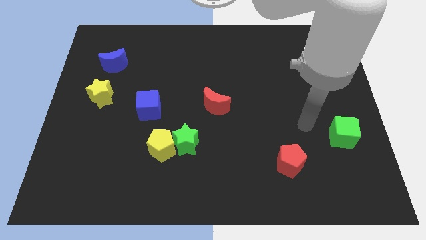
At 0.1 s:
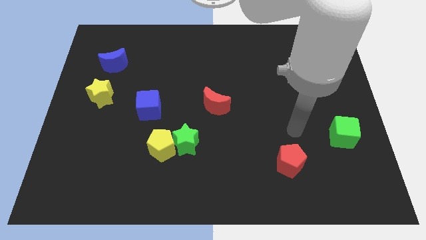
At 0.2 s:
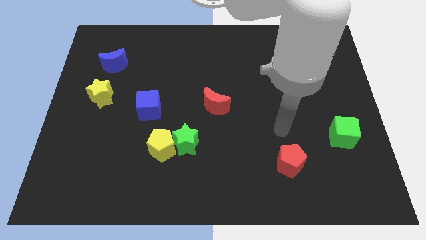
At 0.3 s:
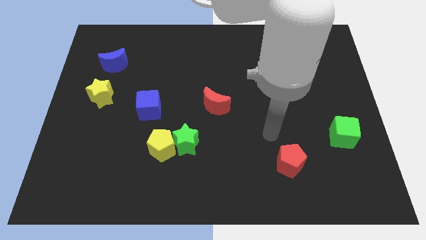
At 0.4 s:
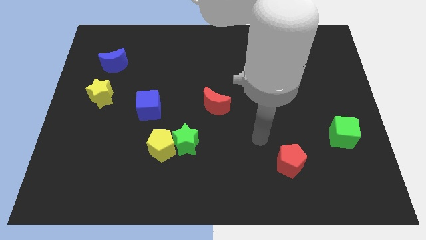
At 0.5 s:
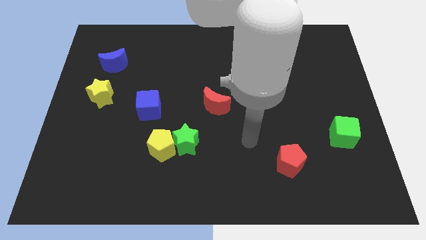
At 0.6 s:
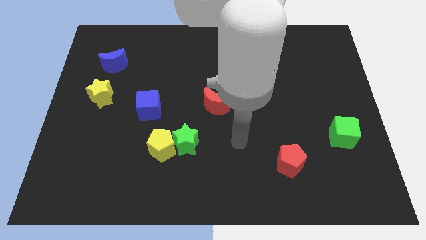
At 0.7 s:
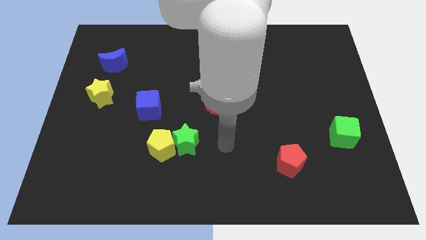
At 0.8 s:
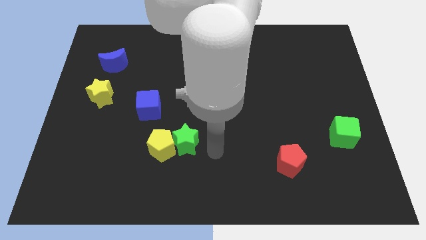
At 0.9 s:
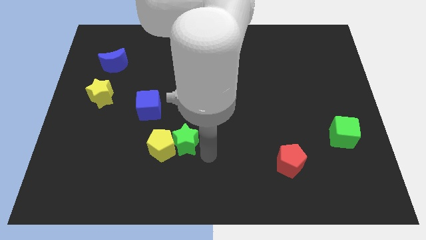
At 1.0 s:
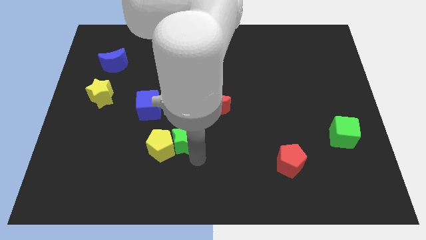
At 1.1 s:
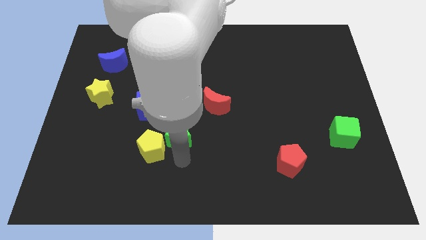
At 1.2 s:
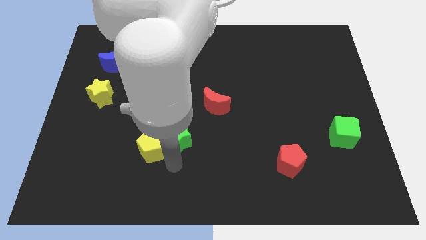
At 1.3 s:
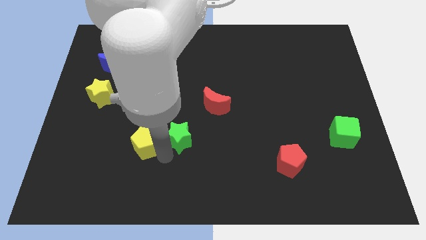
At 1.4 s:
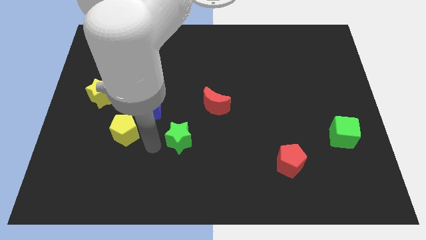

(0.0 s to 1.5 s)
pull the green star apart from the yellow pentagon

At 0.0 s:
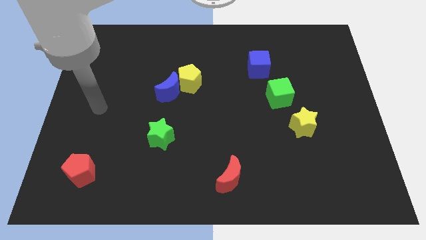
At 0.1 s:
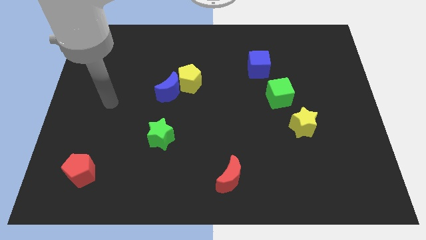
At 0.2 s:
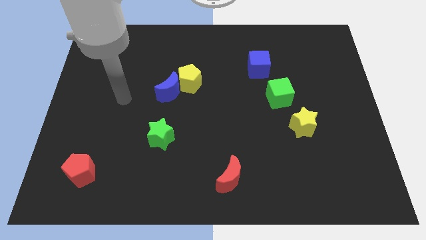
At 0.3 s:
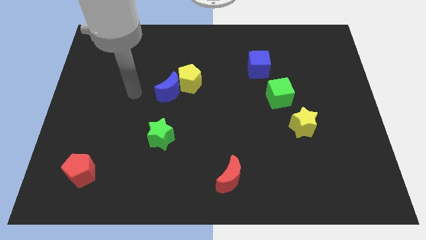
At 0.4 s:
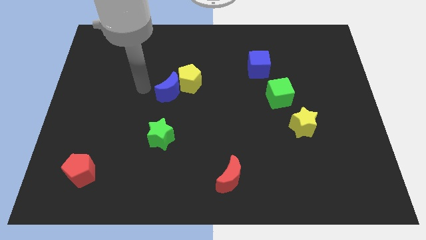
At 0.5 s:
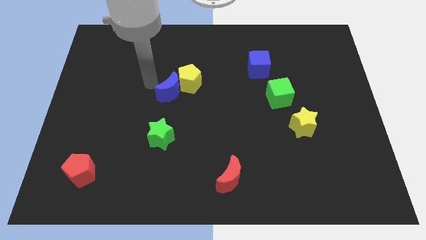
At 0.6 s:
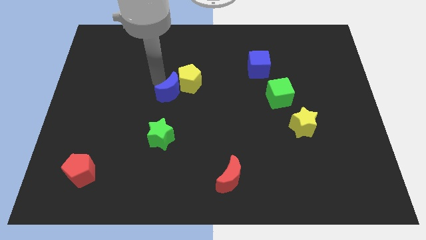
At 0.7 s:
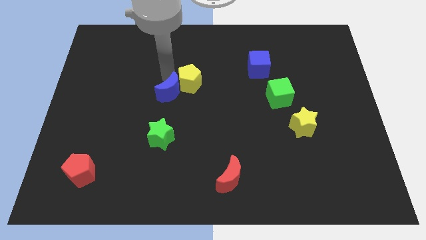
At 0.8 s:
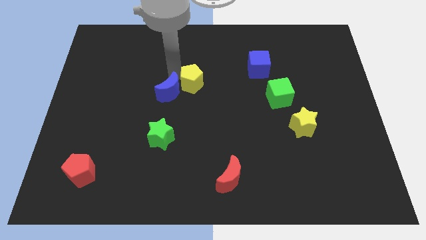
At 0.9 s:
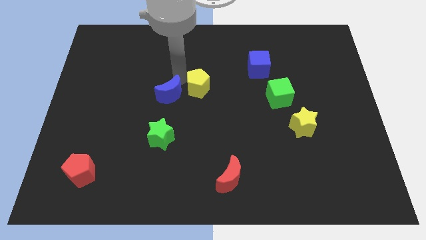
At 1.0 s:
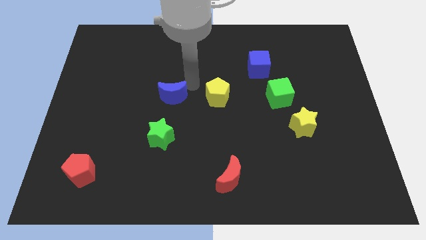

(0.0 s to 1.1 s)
move the blue moon away from the yellow pentagon

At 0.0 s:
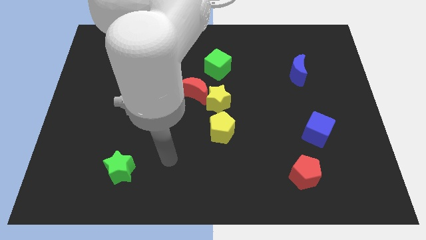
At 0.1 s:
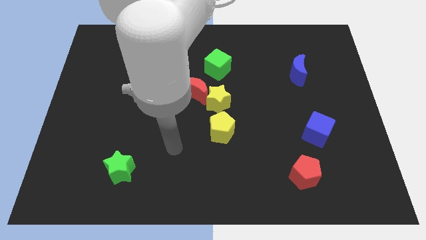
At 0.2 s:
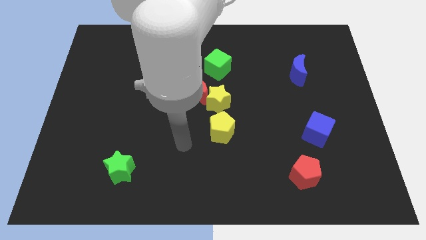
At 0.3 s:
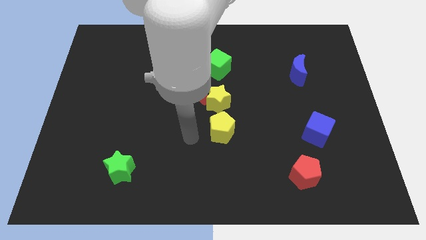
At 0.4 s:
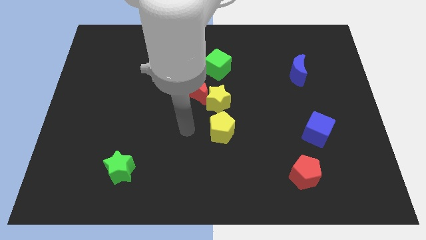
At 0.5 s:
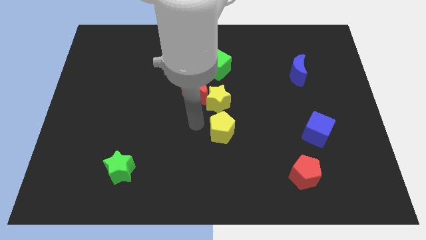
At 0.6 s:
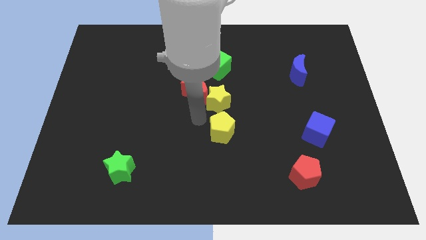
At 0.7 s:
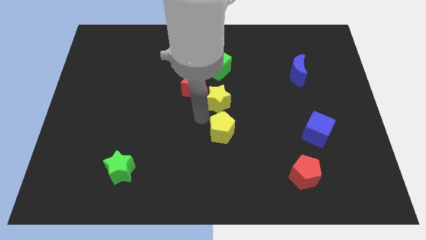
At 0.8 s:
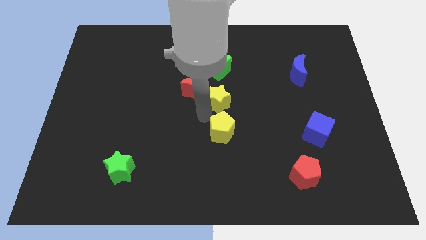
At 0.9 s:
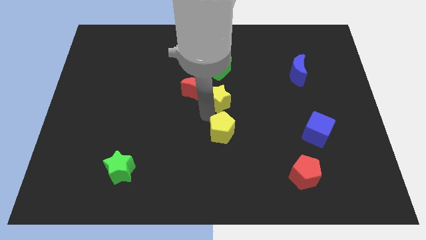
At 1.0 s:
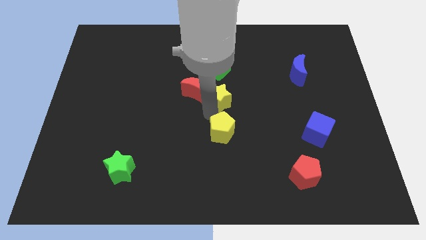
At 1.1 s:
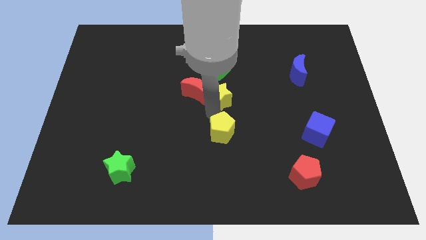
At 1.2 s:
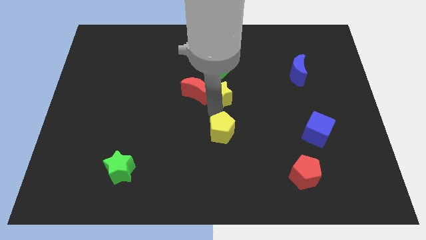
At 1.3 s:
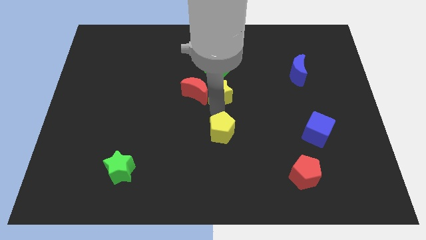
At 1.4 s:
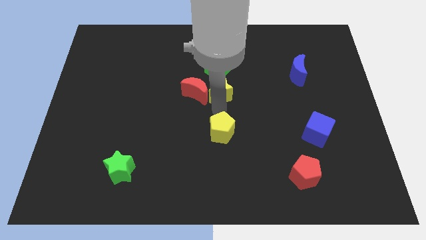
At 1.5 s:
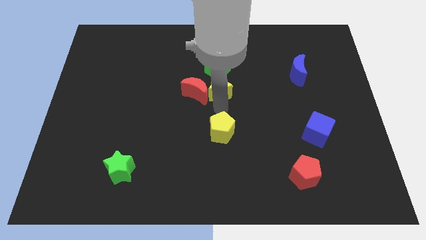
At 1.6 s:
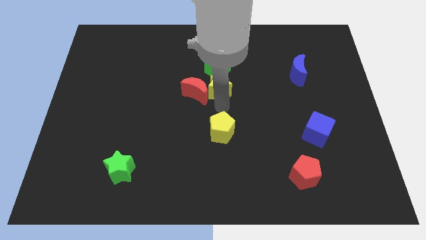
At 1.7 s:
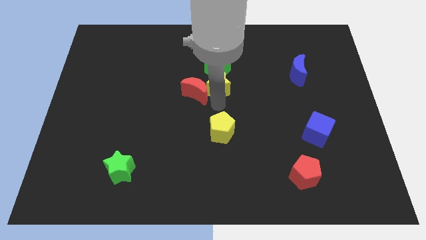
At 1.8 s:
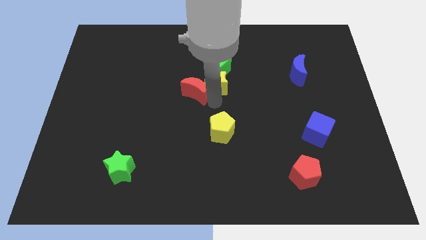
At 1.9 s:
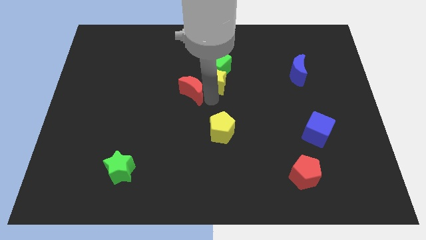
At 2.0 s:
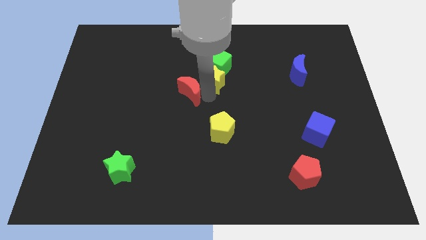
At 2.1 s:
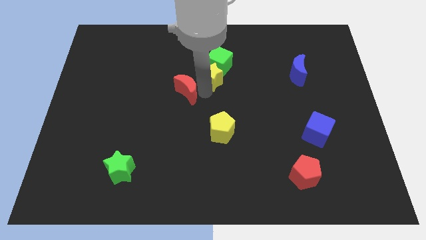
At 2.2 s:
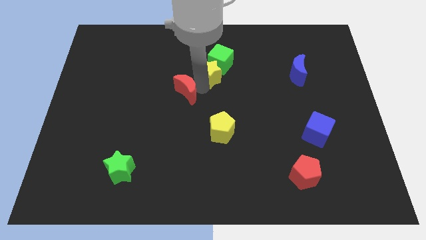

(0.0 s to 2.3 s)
pull the yellow star apart from the red moon and yellow pentagon

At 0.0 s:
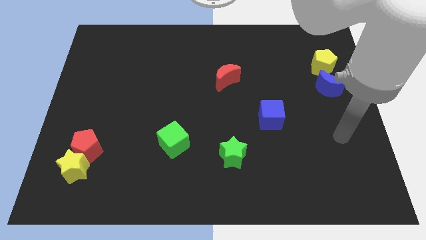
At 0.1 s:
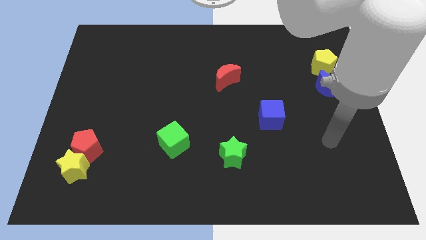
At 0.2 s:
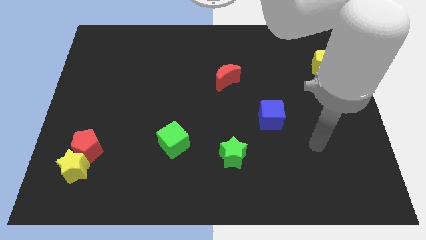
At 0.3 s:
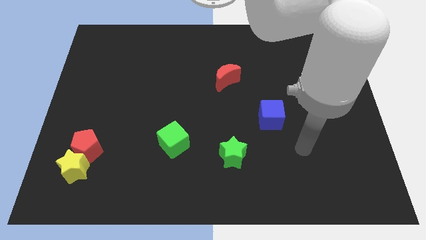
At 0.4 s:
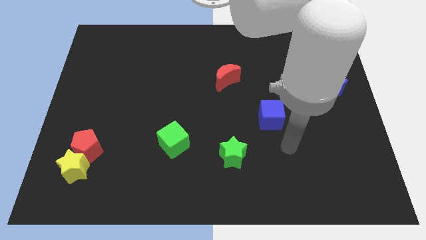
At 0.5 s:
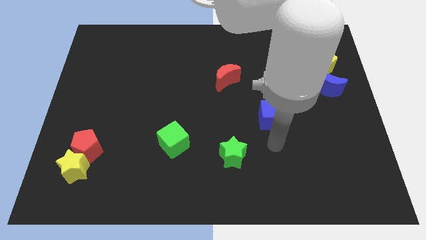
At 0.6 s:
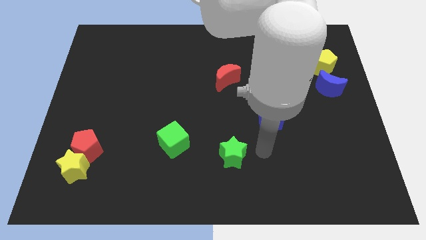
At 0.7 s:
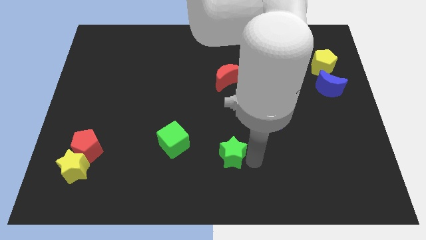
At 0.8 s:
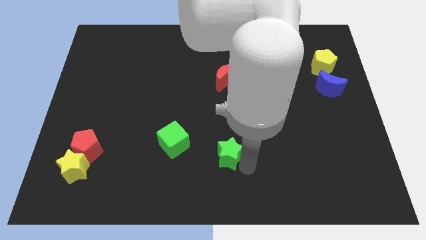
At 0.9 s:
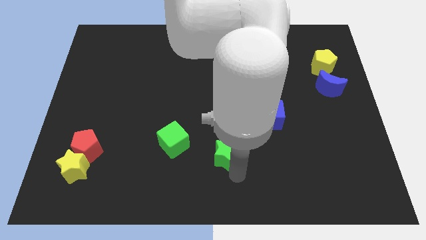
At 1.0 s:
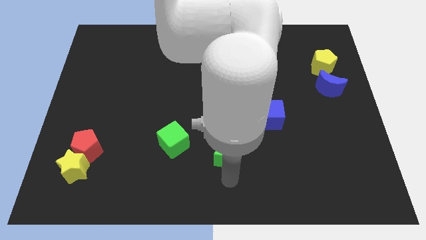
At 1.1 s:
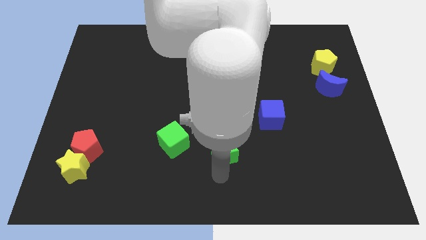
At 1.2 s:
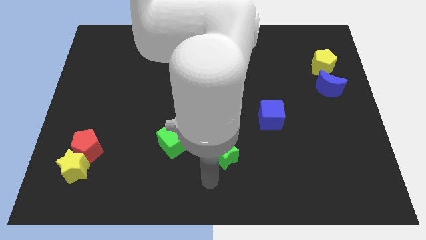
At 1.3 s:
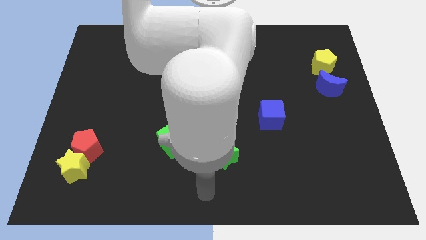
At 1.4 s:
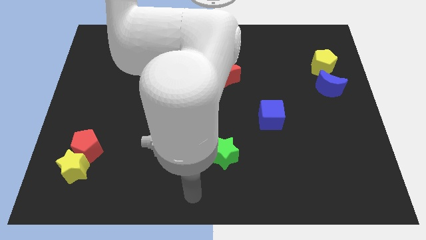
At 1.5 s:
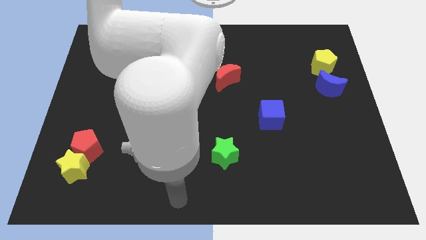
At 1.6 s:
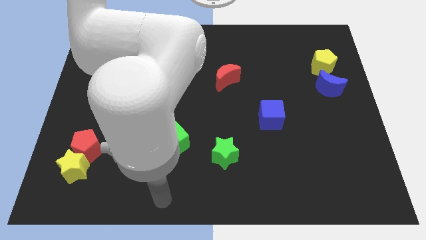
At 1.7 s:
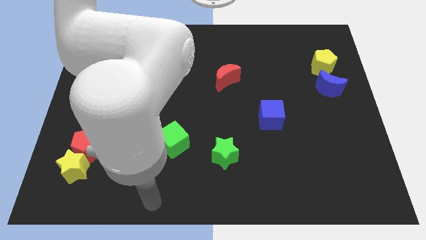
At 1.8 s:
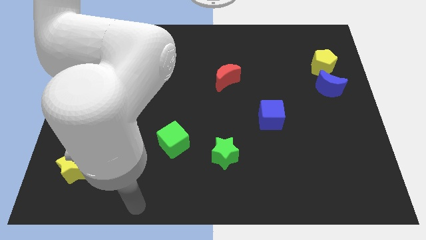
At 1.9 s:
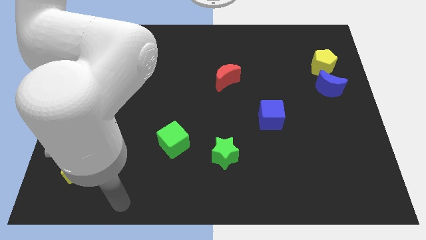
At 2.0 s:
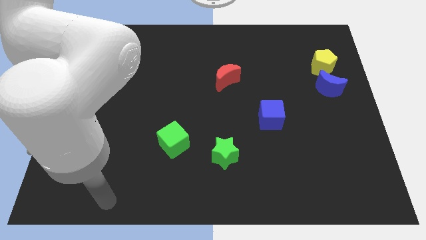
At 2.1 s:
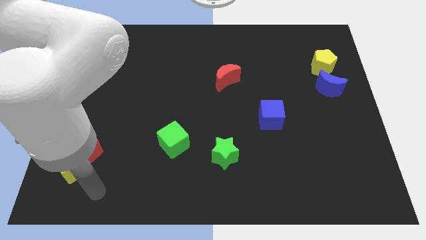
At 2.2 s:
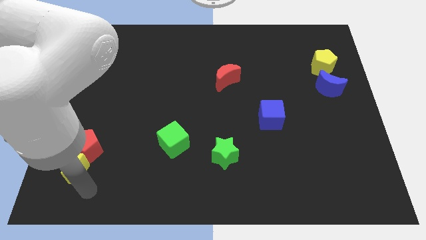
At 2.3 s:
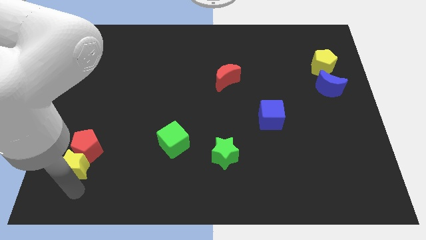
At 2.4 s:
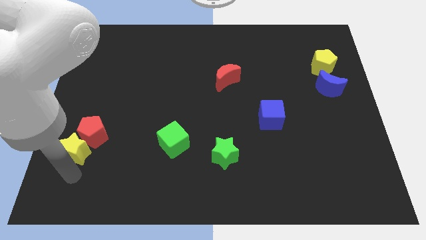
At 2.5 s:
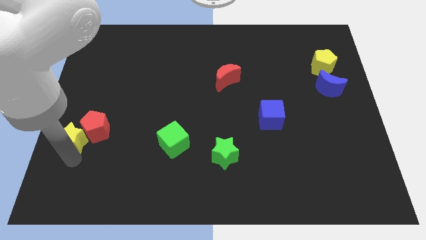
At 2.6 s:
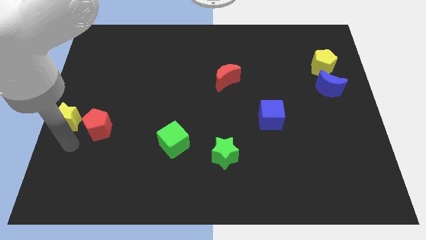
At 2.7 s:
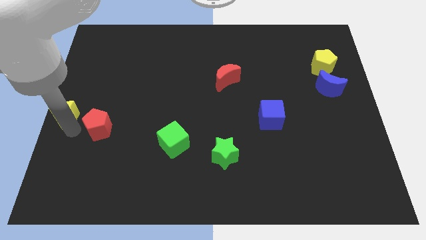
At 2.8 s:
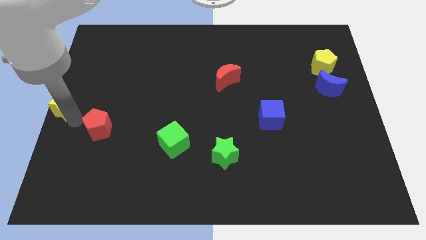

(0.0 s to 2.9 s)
separate the red pentagon from the yellow star

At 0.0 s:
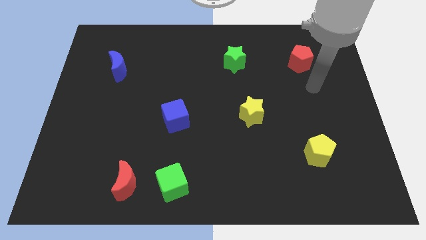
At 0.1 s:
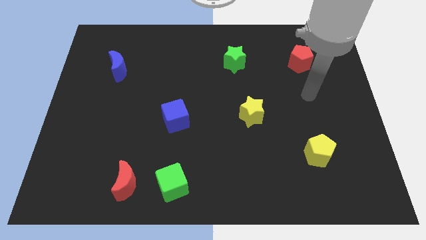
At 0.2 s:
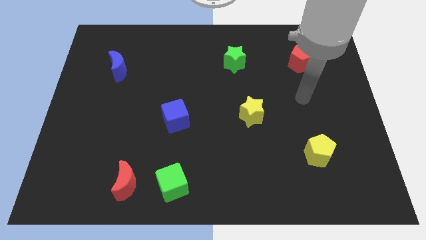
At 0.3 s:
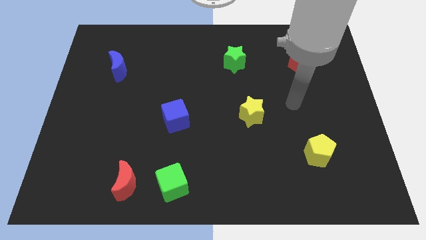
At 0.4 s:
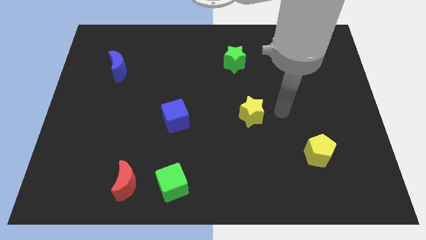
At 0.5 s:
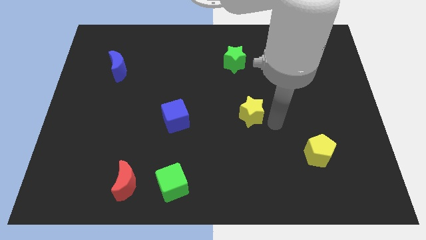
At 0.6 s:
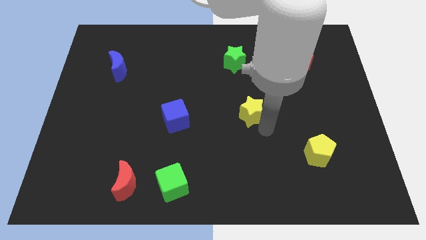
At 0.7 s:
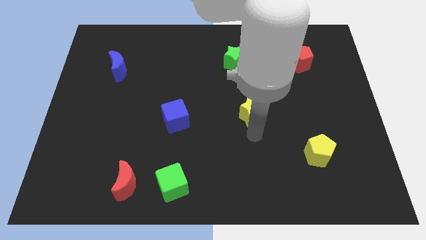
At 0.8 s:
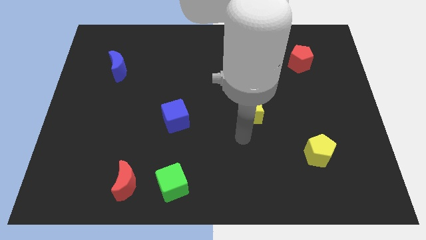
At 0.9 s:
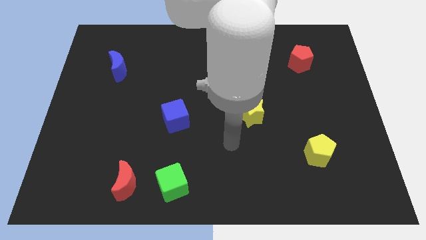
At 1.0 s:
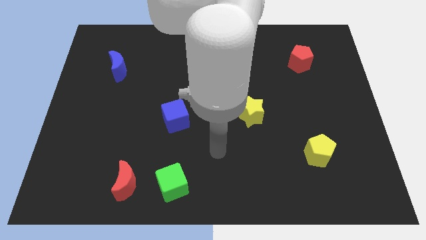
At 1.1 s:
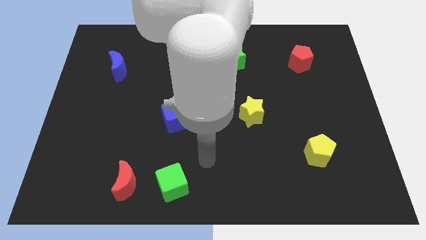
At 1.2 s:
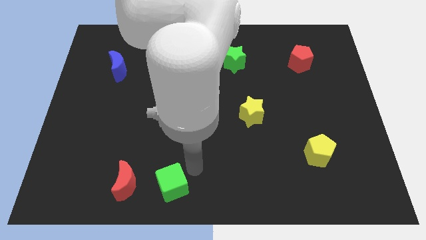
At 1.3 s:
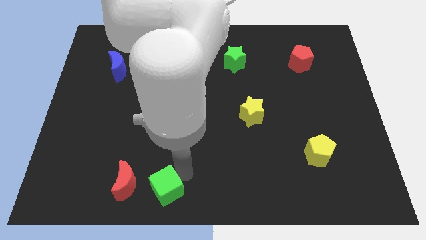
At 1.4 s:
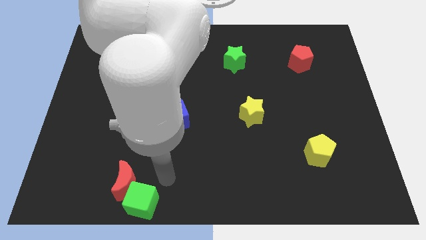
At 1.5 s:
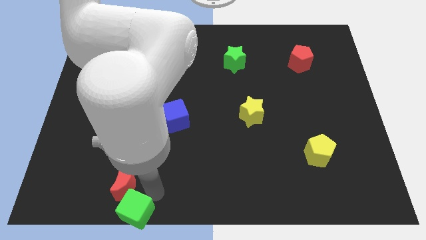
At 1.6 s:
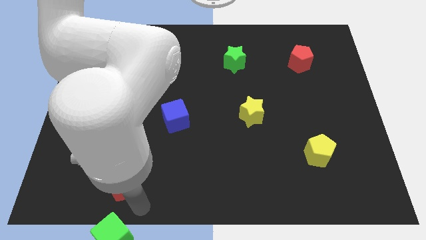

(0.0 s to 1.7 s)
separate the red moon from the green cube
